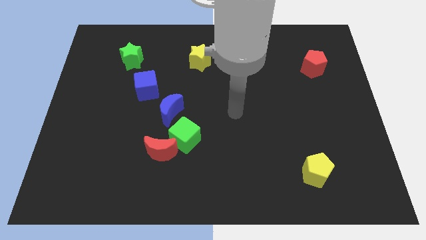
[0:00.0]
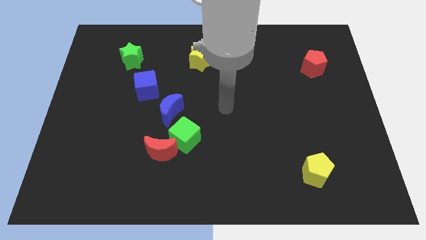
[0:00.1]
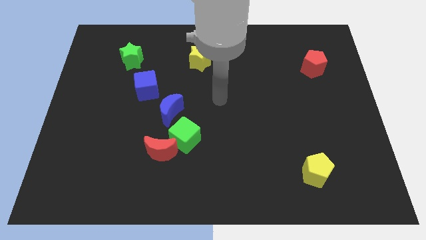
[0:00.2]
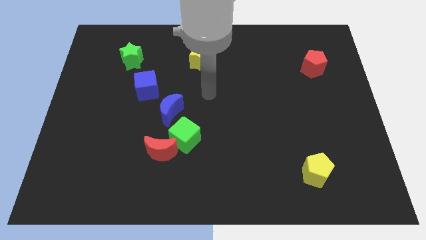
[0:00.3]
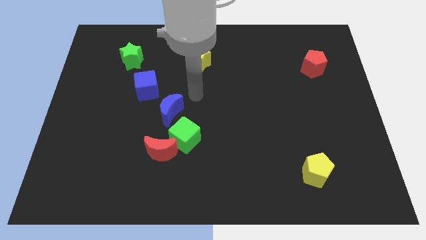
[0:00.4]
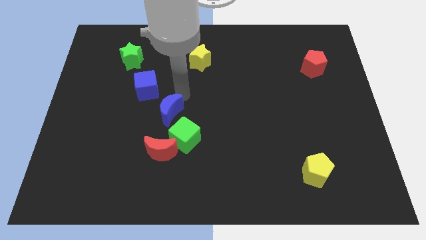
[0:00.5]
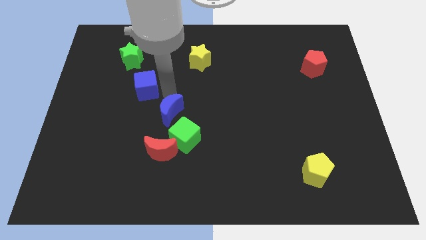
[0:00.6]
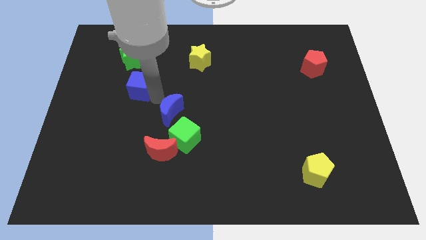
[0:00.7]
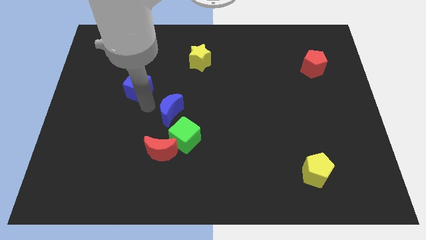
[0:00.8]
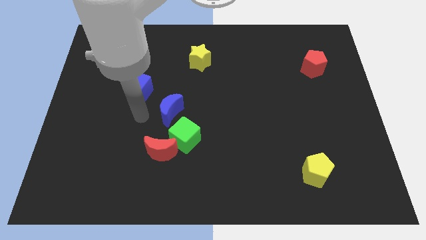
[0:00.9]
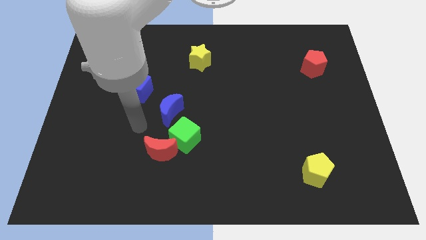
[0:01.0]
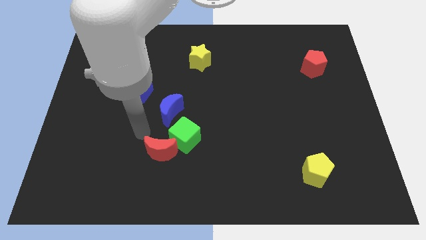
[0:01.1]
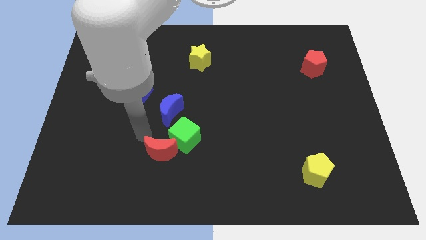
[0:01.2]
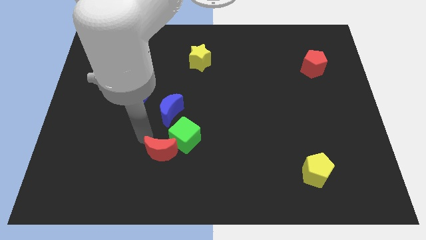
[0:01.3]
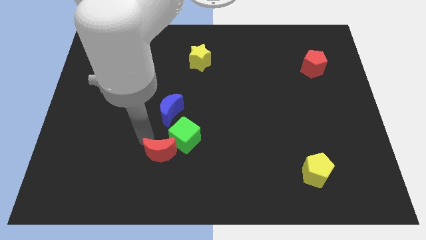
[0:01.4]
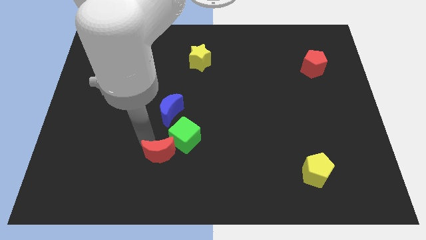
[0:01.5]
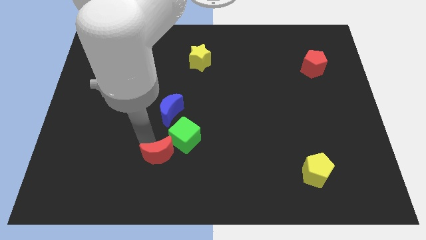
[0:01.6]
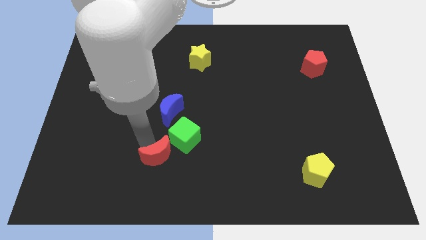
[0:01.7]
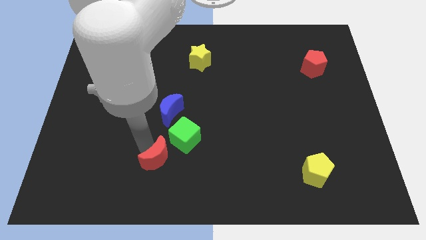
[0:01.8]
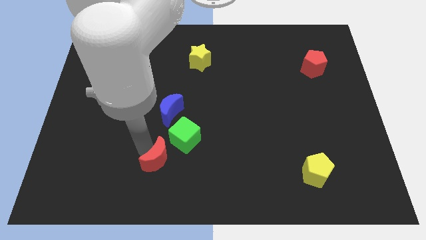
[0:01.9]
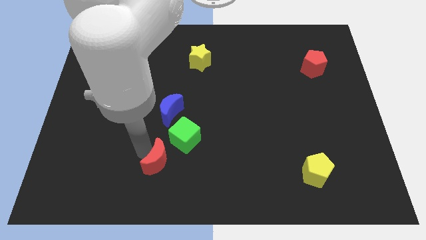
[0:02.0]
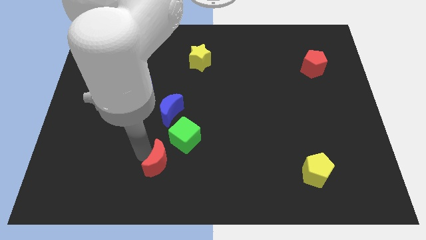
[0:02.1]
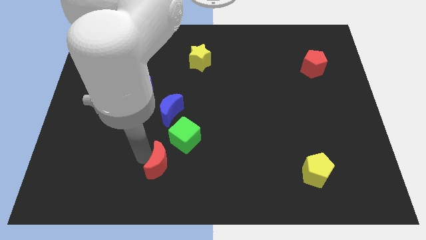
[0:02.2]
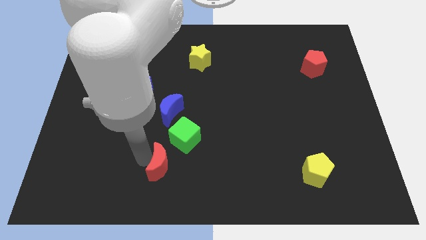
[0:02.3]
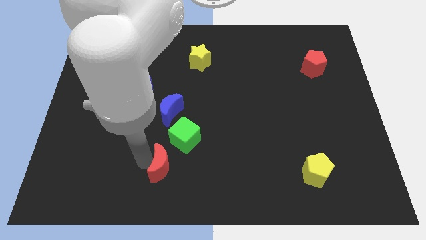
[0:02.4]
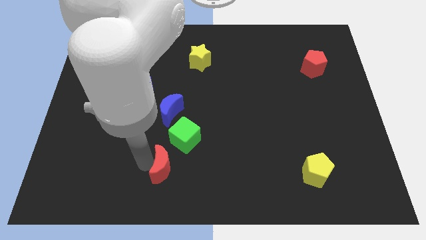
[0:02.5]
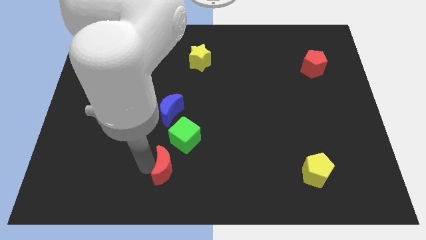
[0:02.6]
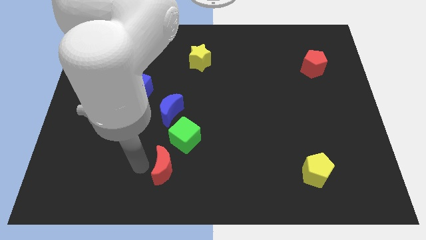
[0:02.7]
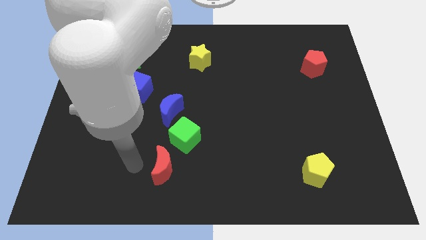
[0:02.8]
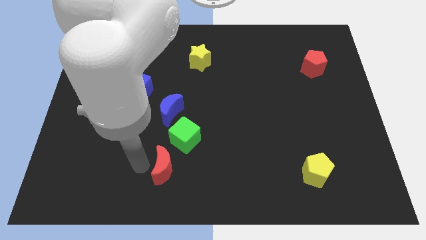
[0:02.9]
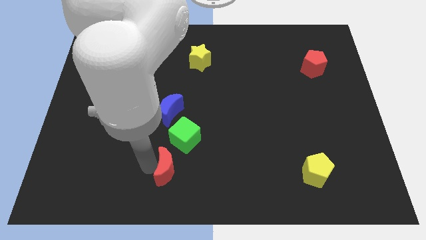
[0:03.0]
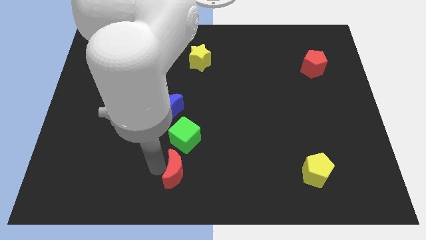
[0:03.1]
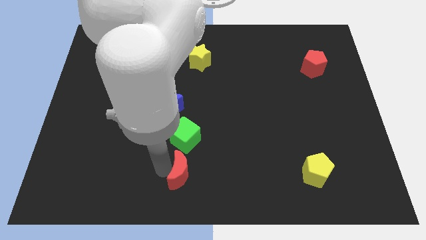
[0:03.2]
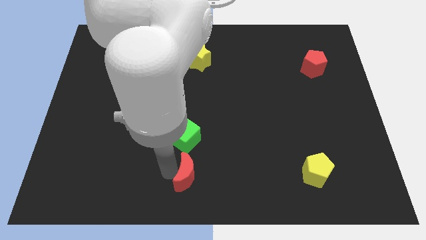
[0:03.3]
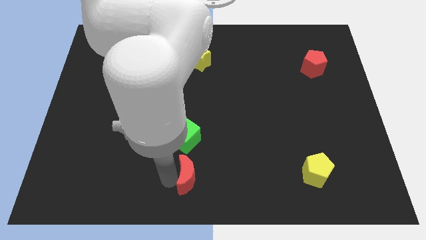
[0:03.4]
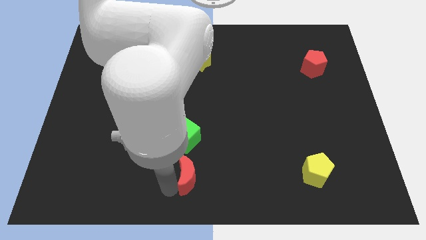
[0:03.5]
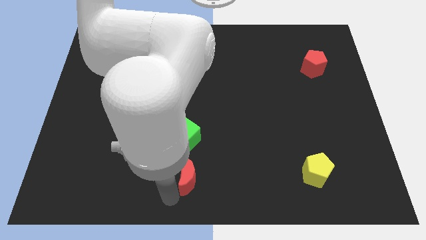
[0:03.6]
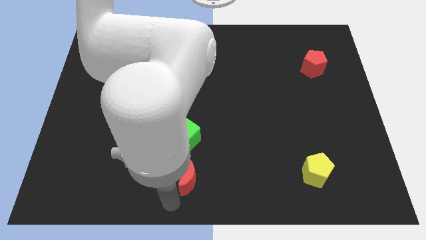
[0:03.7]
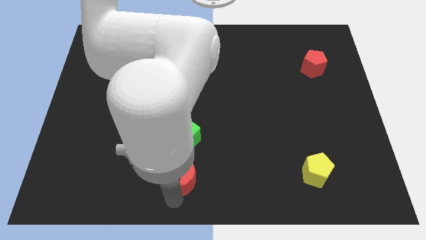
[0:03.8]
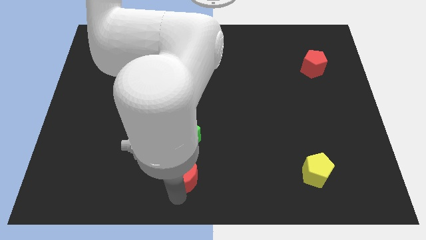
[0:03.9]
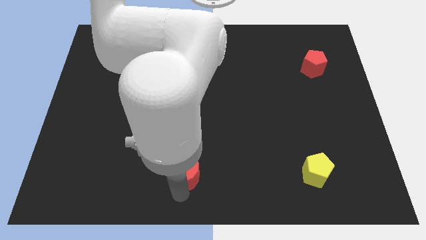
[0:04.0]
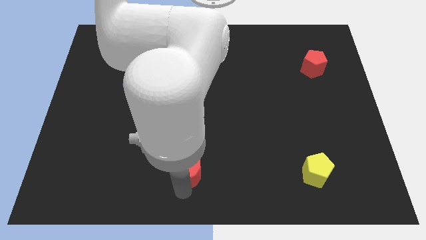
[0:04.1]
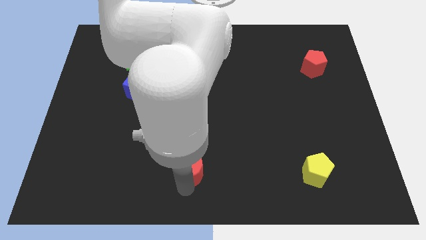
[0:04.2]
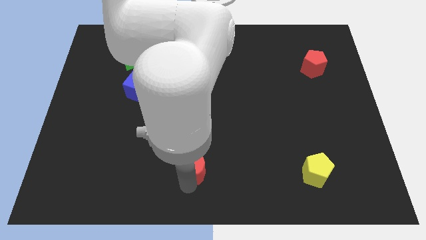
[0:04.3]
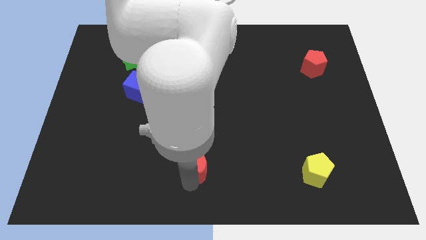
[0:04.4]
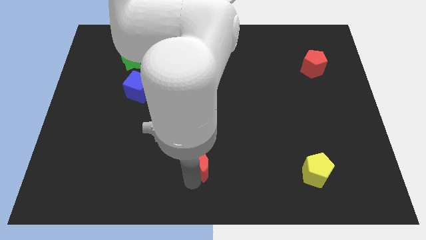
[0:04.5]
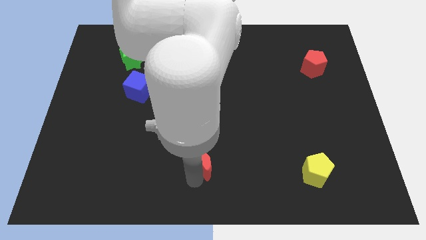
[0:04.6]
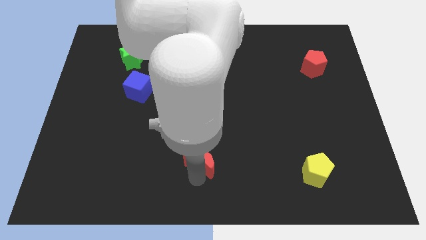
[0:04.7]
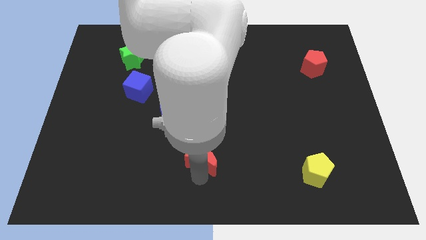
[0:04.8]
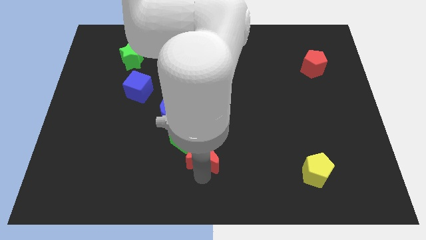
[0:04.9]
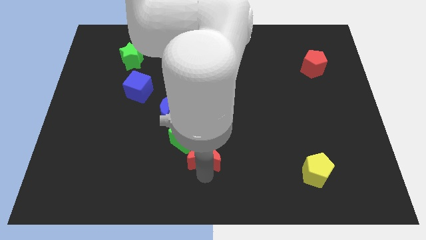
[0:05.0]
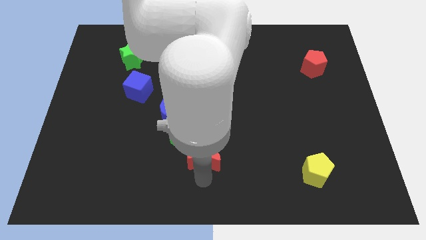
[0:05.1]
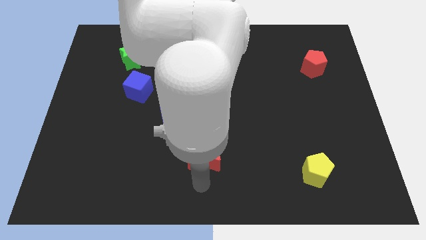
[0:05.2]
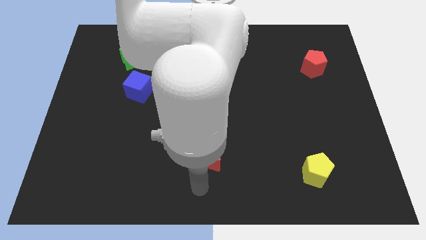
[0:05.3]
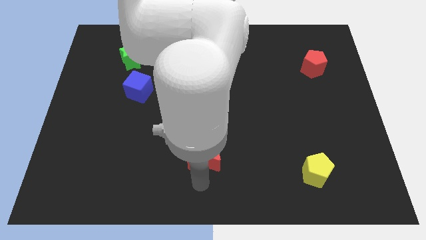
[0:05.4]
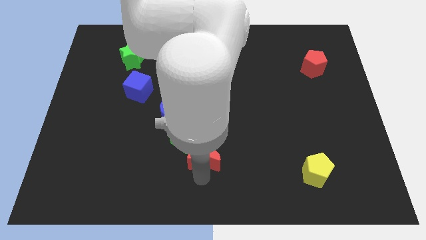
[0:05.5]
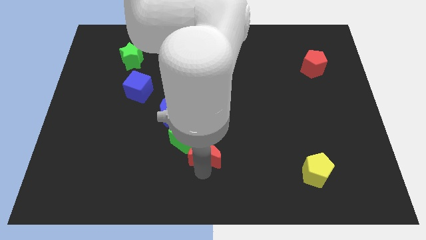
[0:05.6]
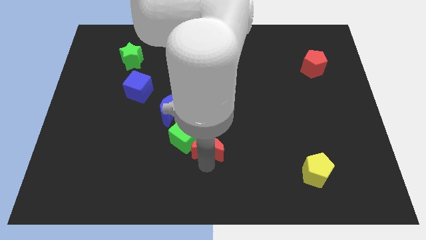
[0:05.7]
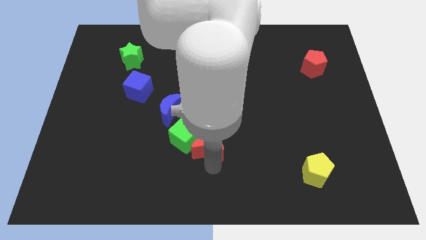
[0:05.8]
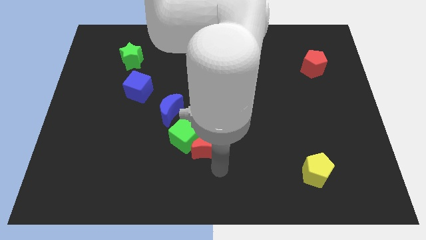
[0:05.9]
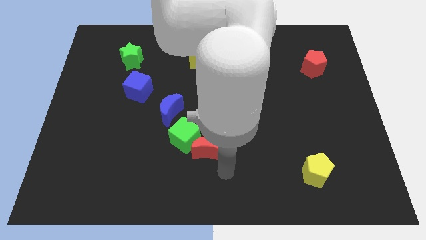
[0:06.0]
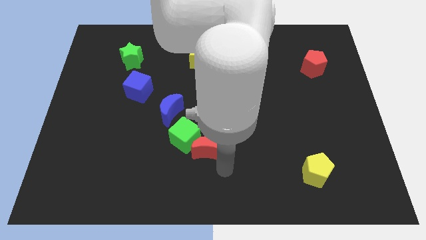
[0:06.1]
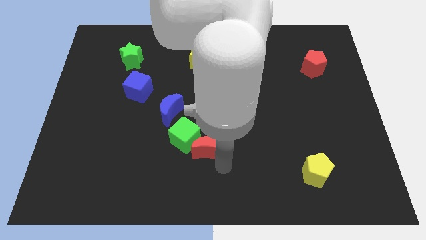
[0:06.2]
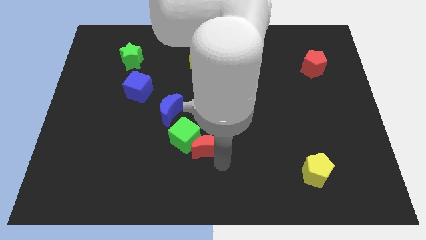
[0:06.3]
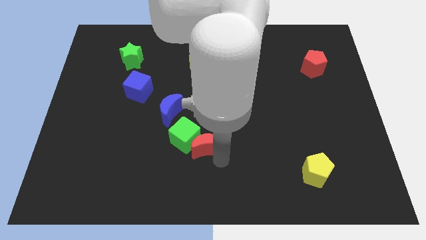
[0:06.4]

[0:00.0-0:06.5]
put the red moon to the bottom right side of the blue moon

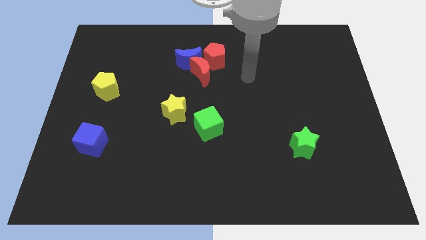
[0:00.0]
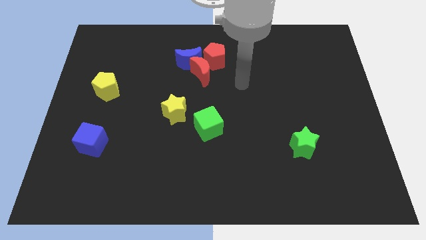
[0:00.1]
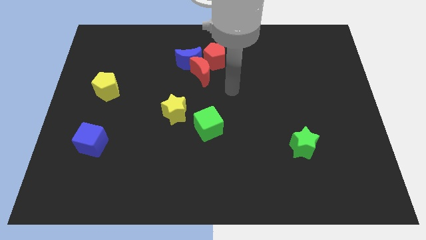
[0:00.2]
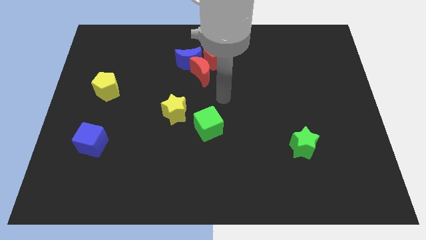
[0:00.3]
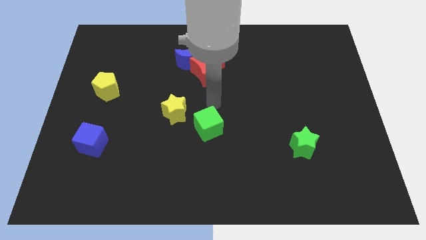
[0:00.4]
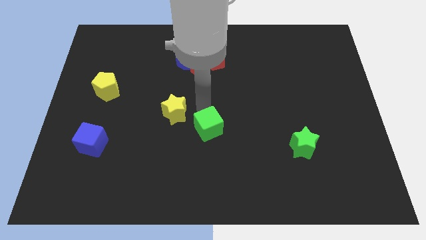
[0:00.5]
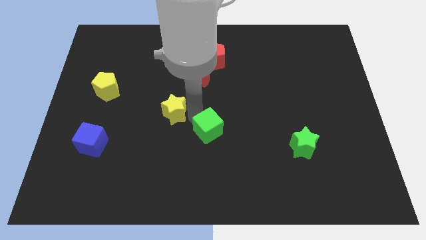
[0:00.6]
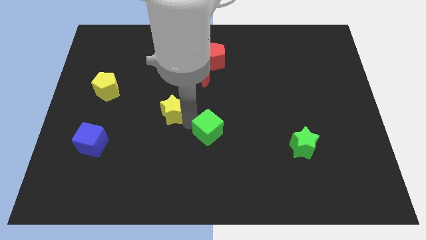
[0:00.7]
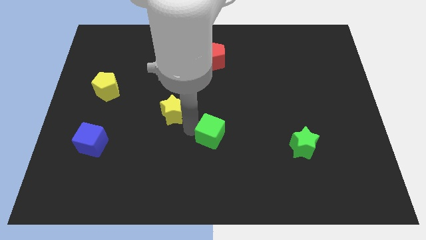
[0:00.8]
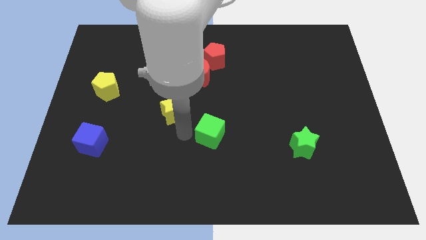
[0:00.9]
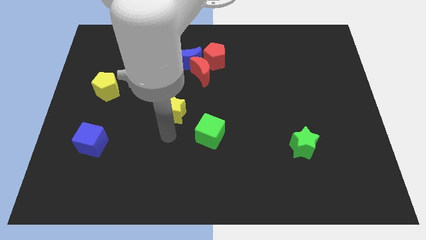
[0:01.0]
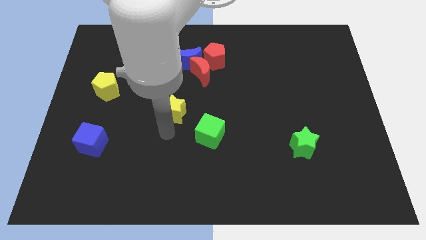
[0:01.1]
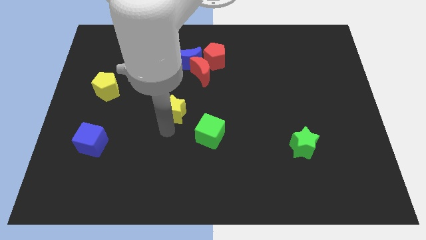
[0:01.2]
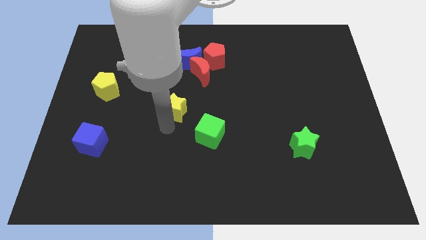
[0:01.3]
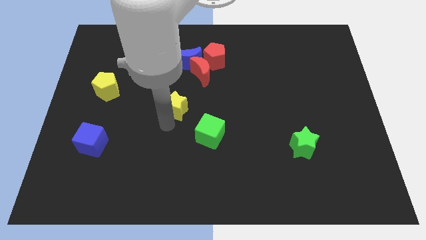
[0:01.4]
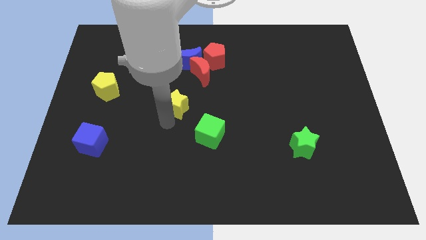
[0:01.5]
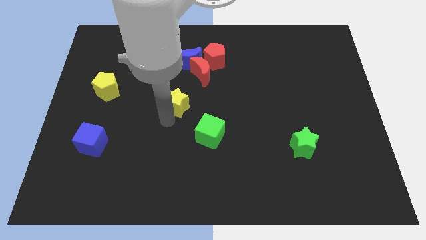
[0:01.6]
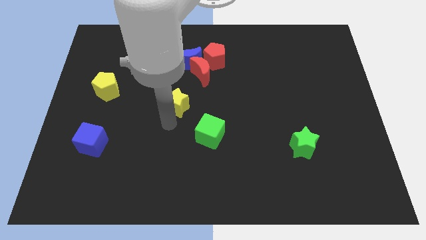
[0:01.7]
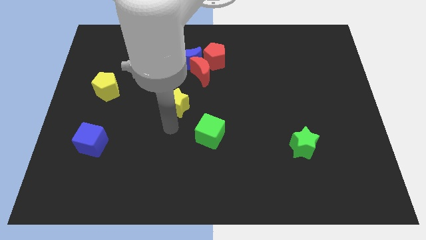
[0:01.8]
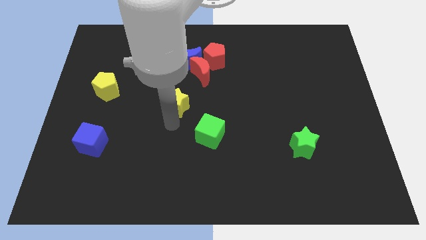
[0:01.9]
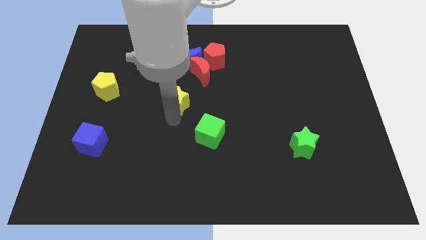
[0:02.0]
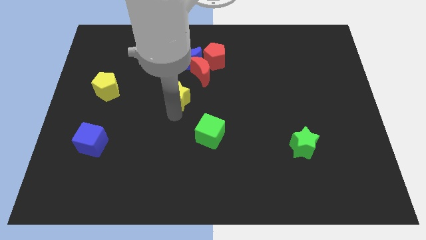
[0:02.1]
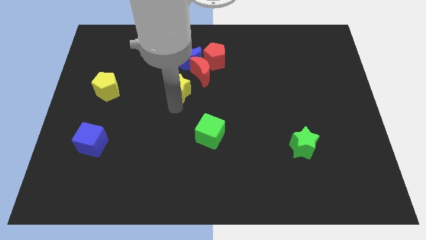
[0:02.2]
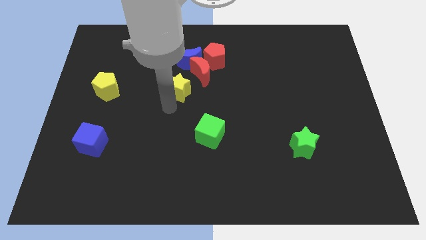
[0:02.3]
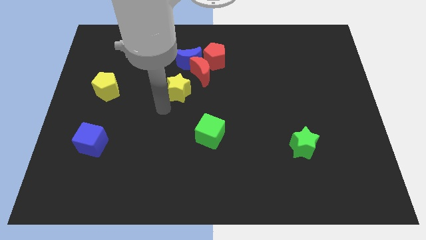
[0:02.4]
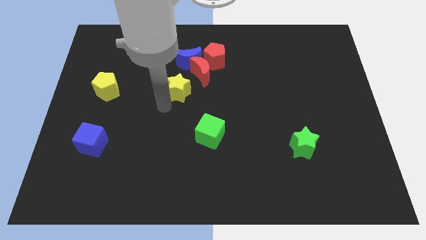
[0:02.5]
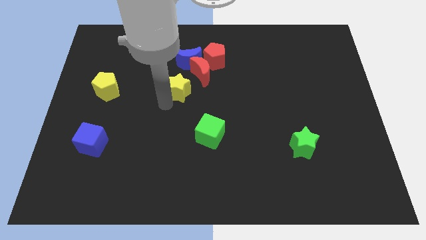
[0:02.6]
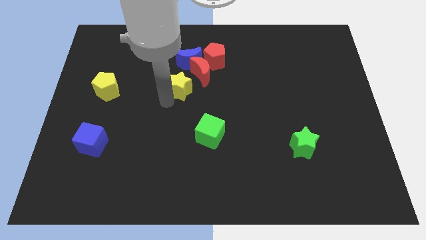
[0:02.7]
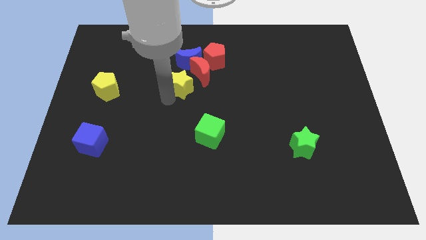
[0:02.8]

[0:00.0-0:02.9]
slide the yellow star diagonally down and to the left of the red pentagon
